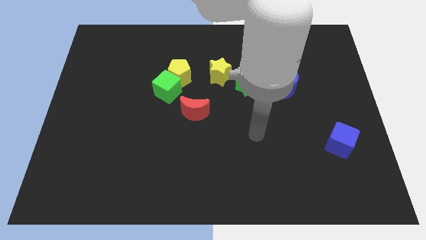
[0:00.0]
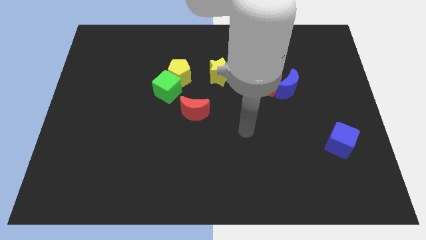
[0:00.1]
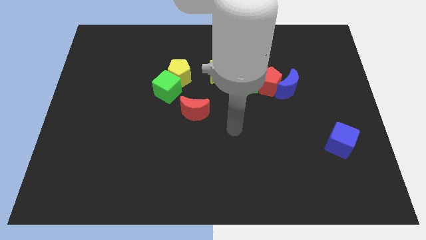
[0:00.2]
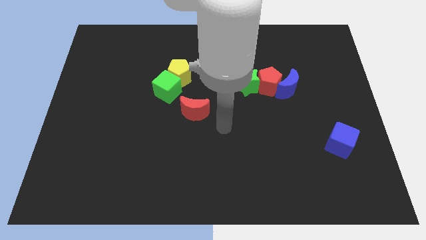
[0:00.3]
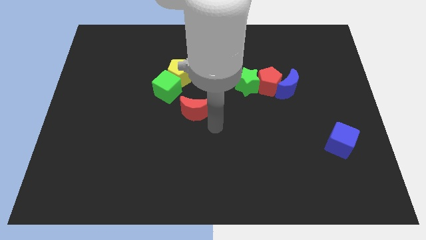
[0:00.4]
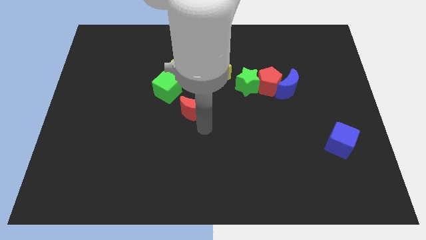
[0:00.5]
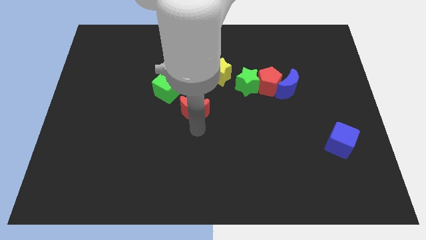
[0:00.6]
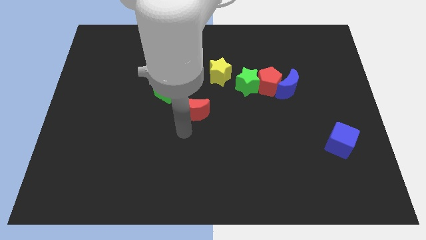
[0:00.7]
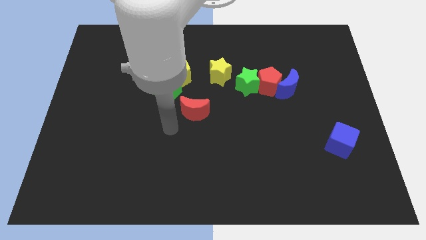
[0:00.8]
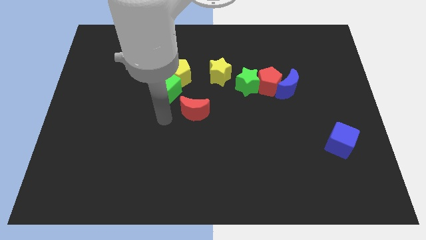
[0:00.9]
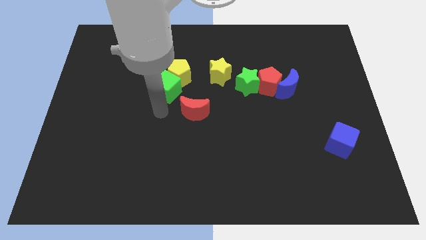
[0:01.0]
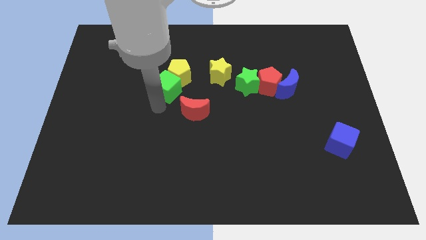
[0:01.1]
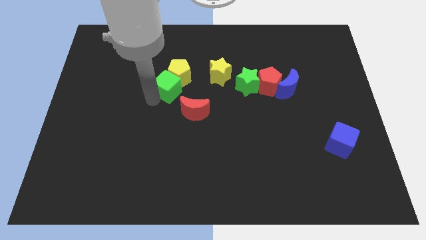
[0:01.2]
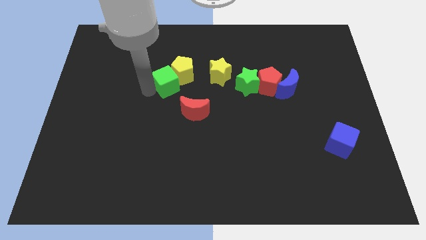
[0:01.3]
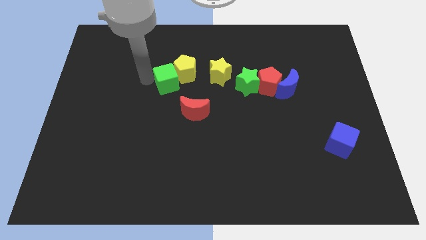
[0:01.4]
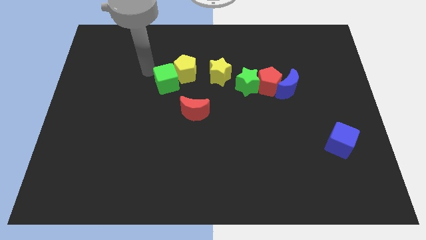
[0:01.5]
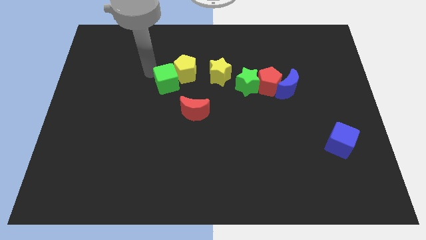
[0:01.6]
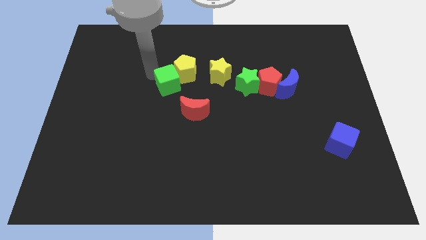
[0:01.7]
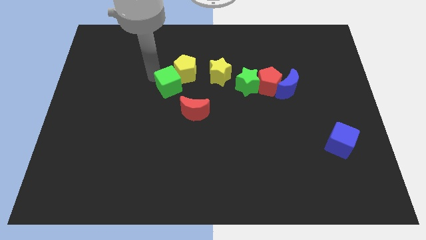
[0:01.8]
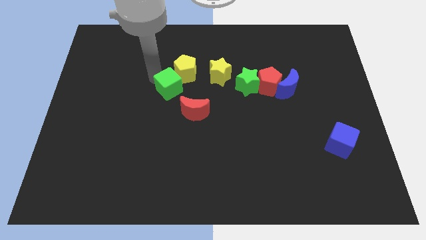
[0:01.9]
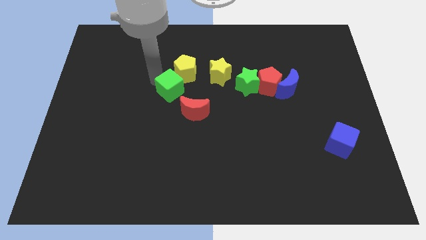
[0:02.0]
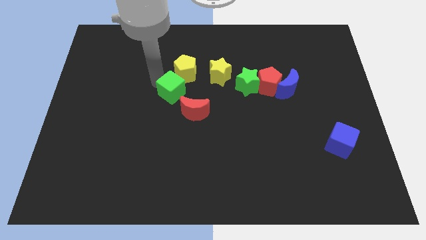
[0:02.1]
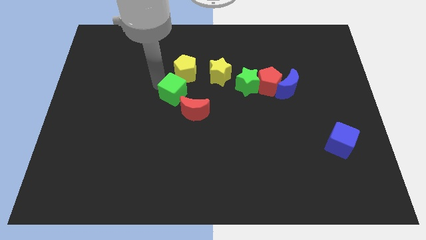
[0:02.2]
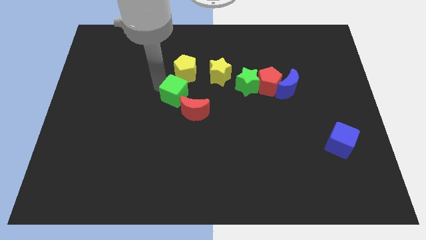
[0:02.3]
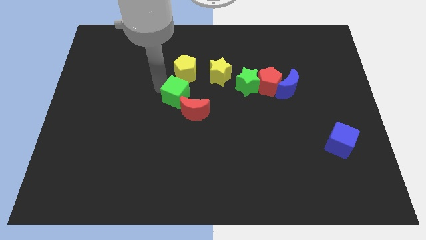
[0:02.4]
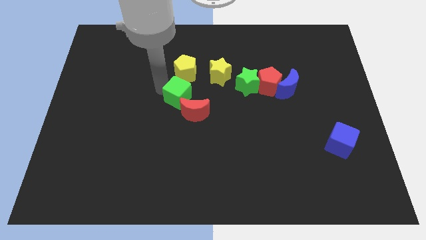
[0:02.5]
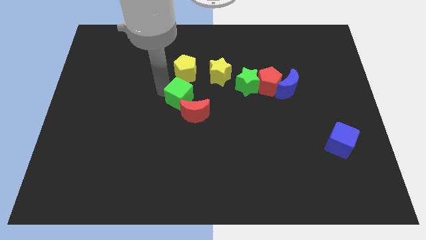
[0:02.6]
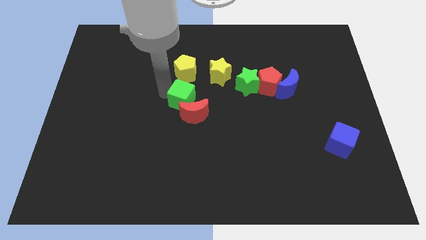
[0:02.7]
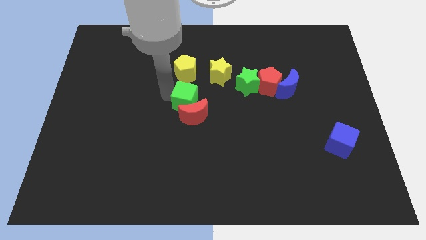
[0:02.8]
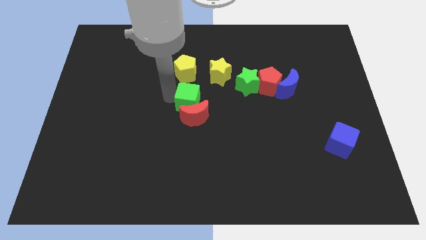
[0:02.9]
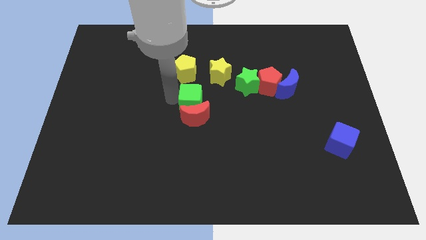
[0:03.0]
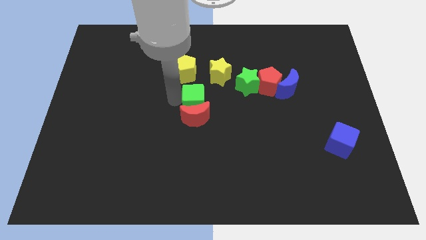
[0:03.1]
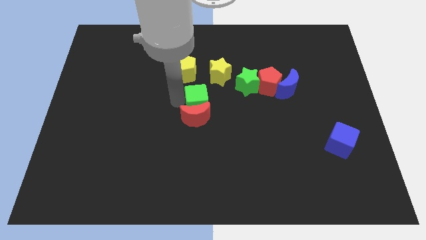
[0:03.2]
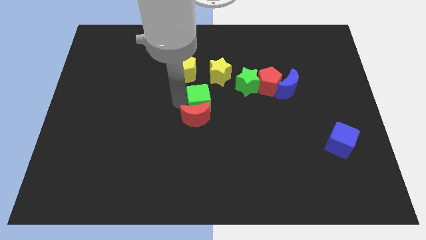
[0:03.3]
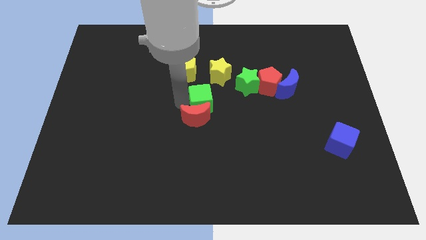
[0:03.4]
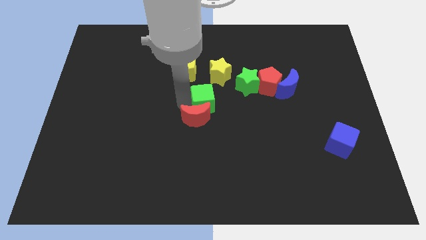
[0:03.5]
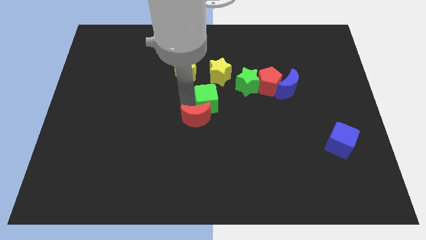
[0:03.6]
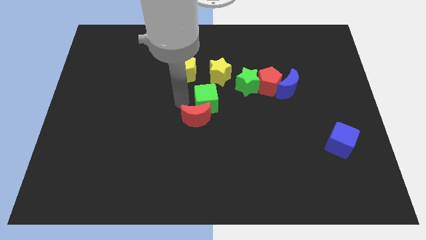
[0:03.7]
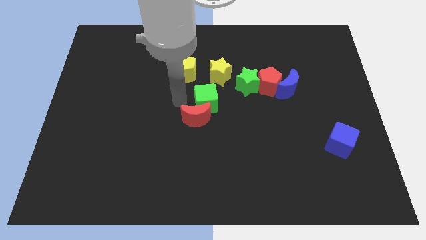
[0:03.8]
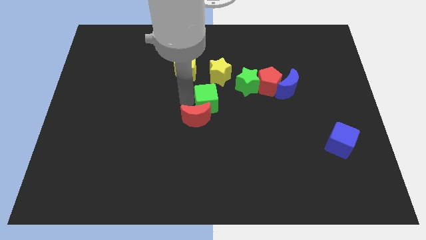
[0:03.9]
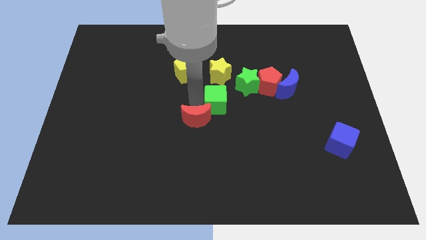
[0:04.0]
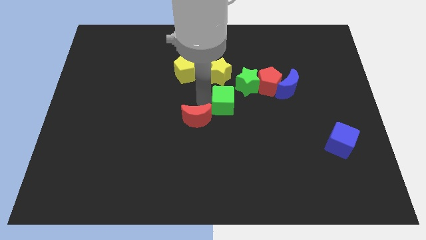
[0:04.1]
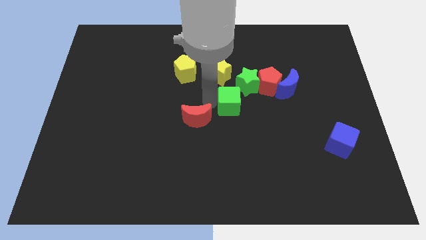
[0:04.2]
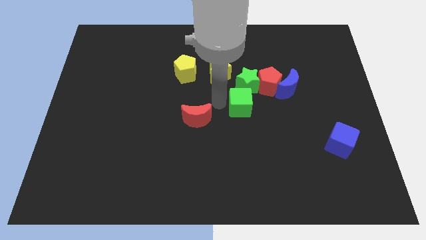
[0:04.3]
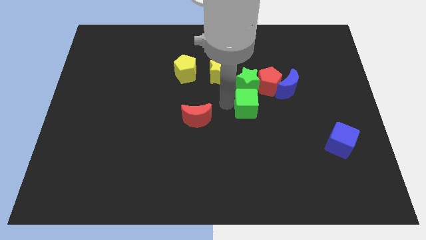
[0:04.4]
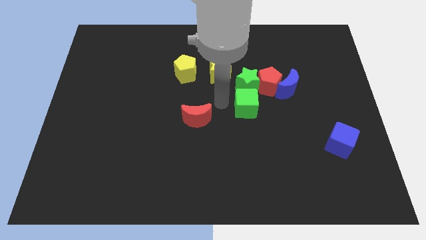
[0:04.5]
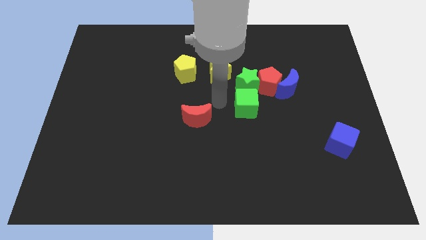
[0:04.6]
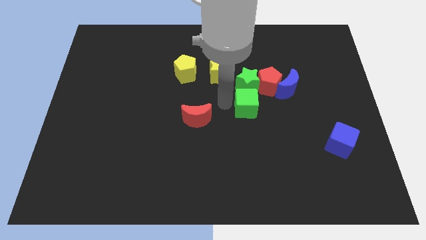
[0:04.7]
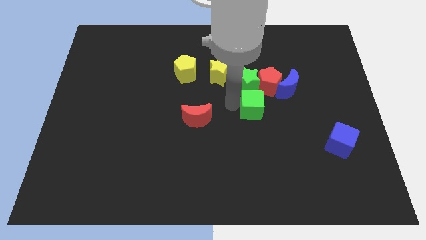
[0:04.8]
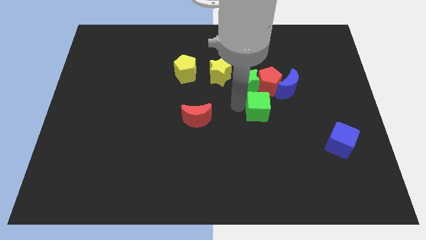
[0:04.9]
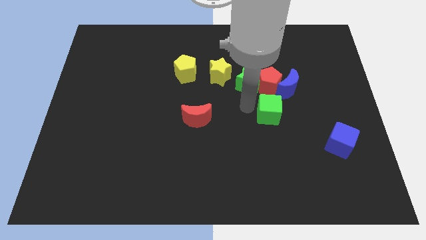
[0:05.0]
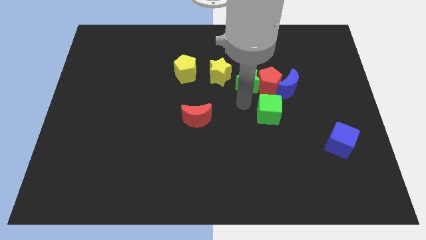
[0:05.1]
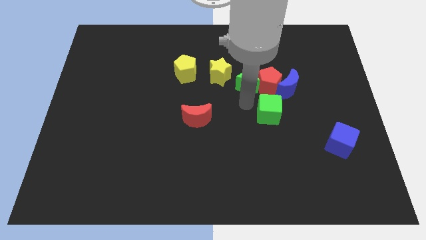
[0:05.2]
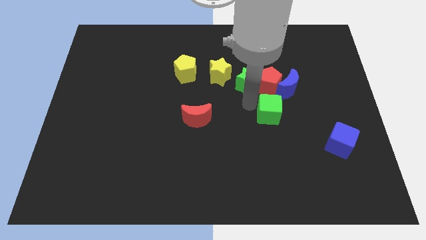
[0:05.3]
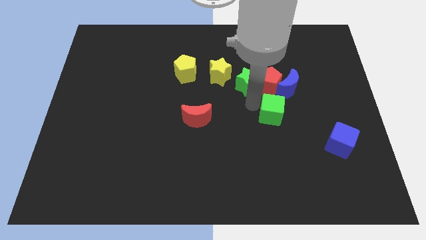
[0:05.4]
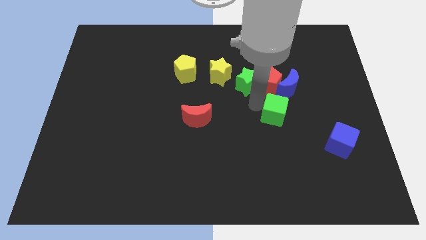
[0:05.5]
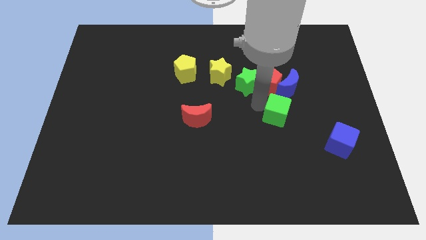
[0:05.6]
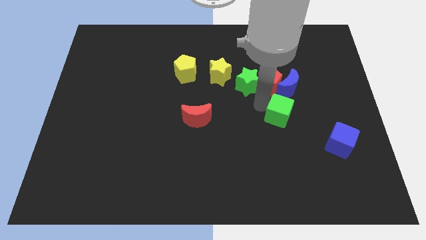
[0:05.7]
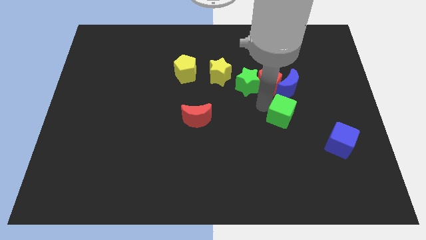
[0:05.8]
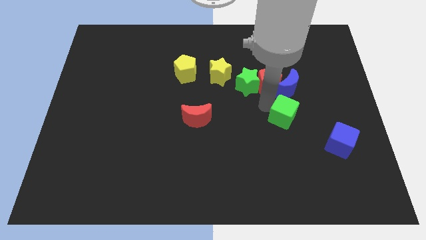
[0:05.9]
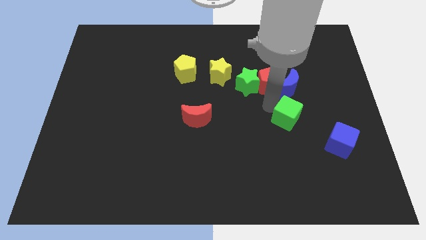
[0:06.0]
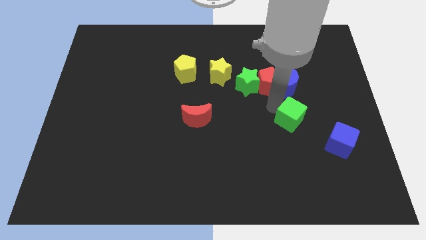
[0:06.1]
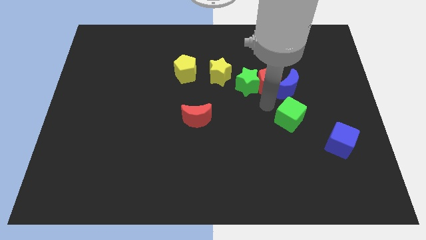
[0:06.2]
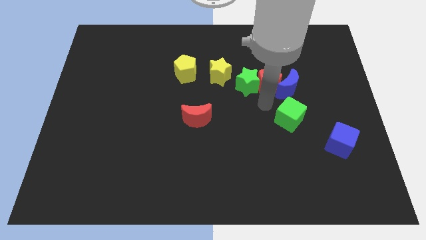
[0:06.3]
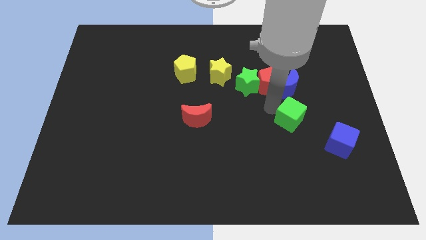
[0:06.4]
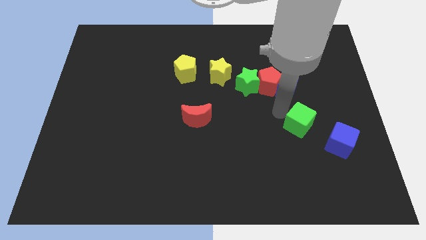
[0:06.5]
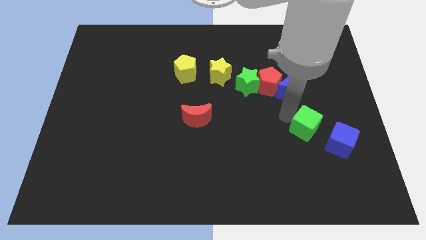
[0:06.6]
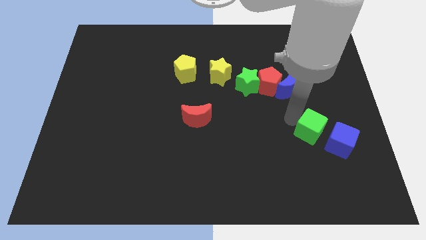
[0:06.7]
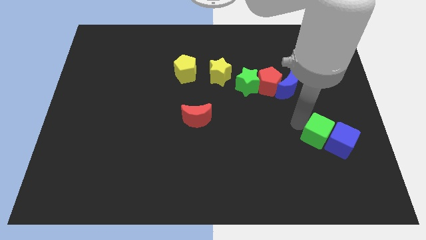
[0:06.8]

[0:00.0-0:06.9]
push the green cube close to the blue cube
